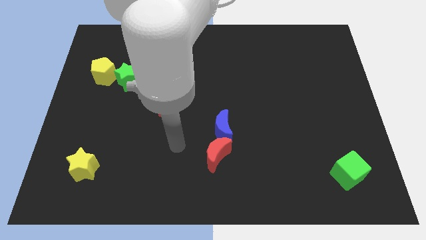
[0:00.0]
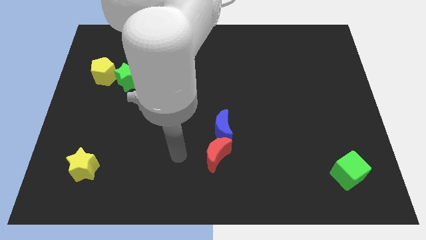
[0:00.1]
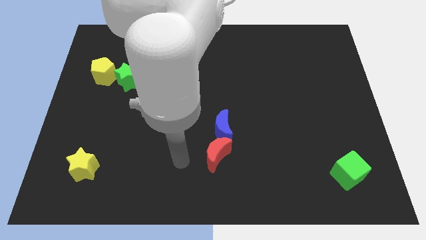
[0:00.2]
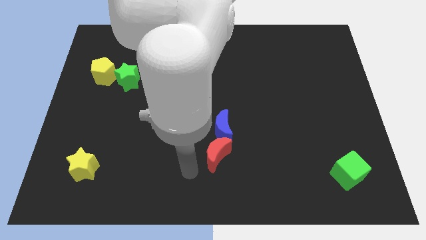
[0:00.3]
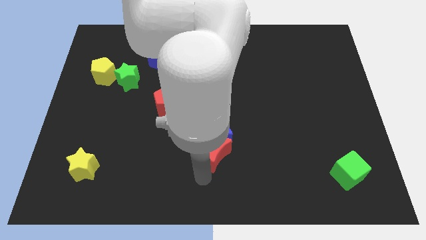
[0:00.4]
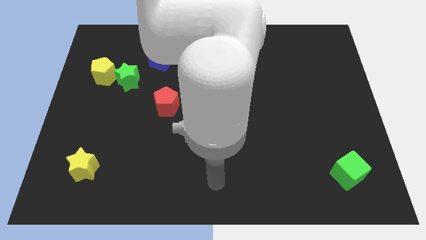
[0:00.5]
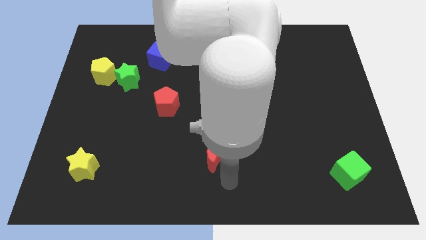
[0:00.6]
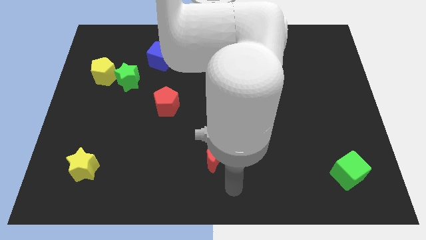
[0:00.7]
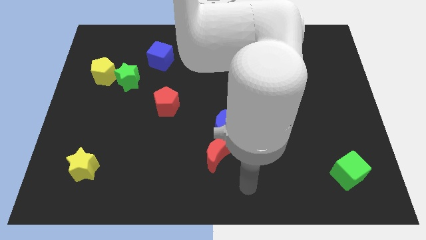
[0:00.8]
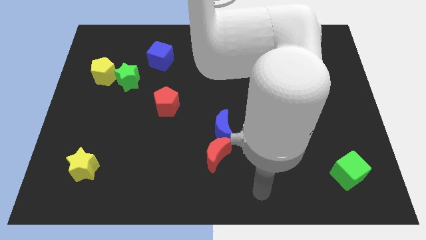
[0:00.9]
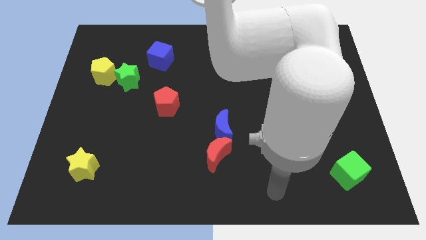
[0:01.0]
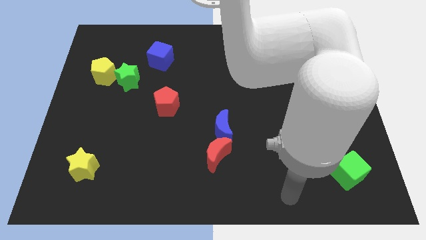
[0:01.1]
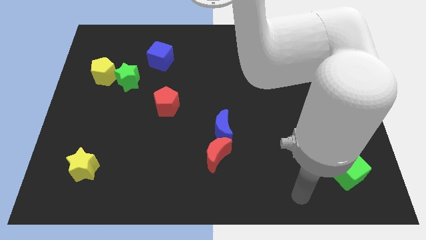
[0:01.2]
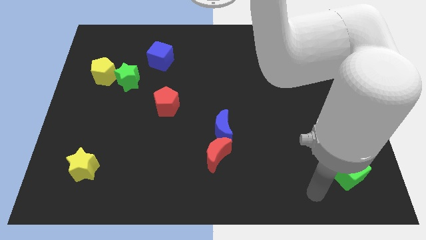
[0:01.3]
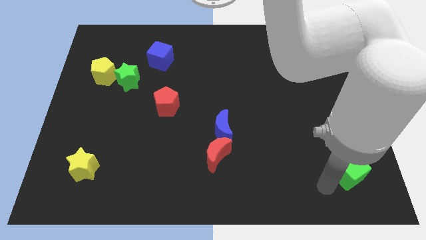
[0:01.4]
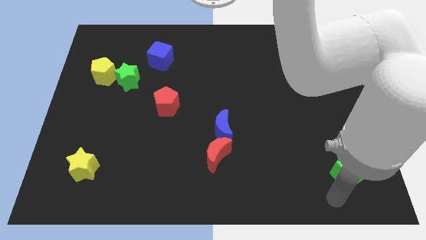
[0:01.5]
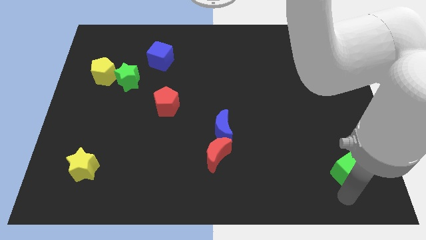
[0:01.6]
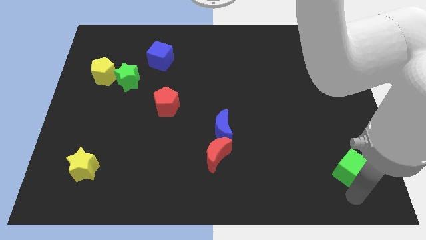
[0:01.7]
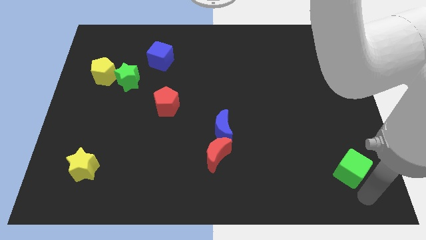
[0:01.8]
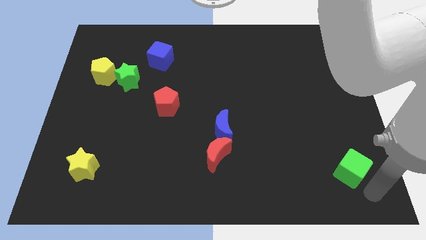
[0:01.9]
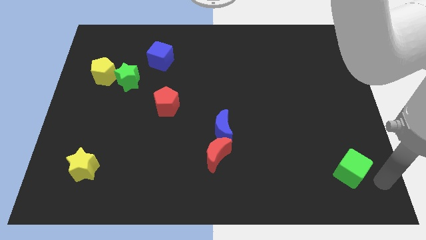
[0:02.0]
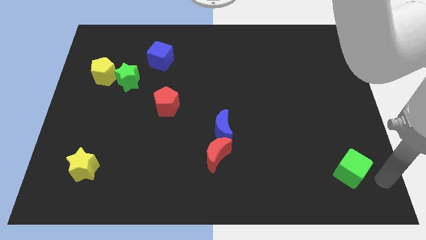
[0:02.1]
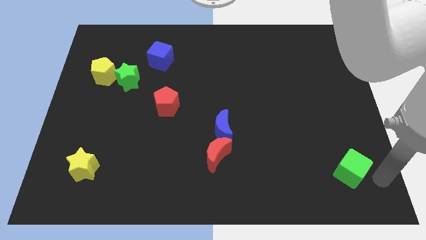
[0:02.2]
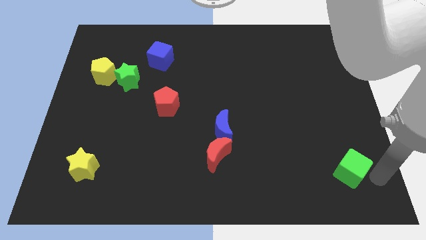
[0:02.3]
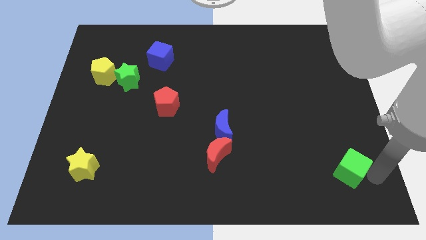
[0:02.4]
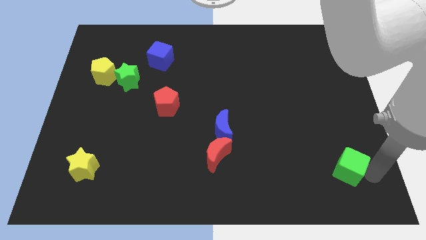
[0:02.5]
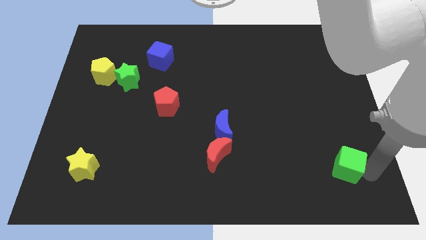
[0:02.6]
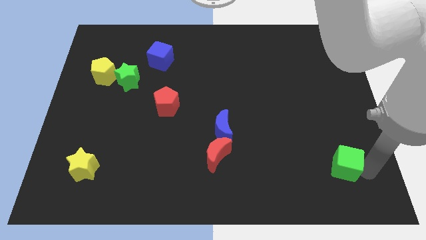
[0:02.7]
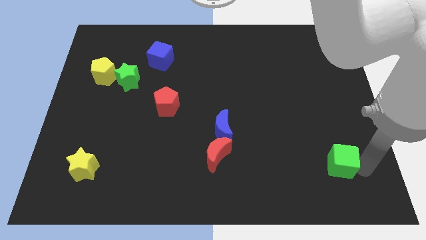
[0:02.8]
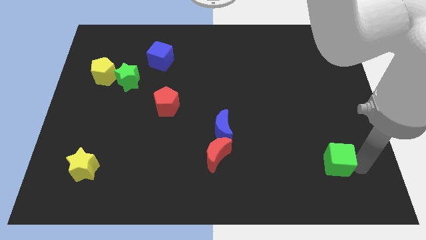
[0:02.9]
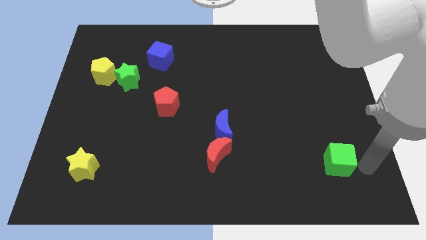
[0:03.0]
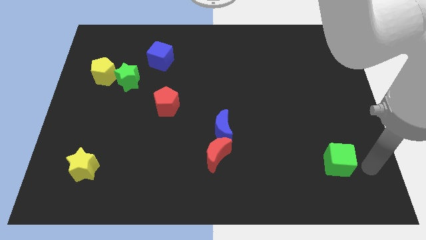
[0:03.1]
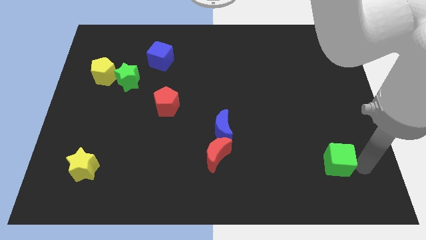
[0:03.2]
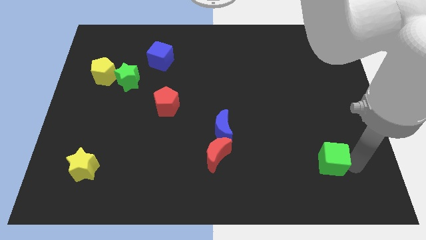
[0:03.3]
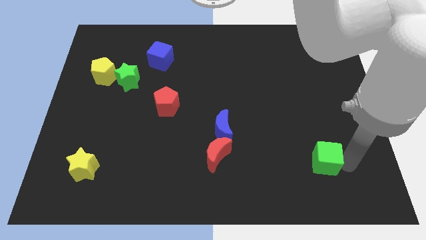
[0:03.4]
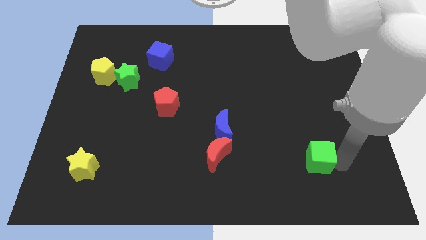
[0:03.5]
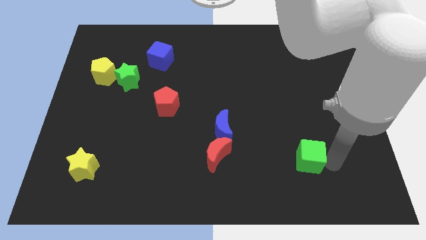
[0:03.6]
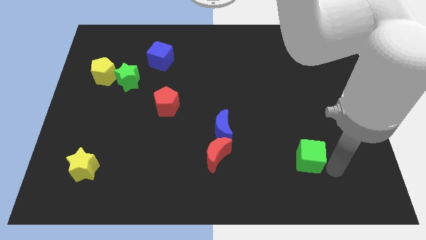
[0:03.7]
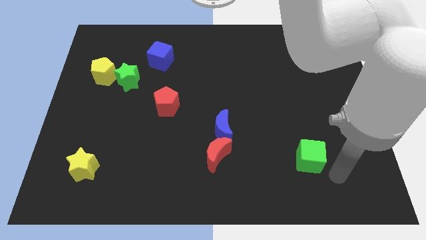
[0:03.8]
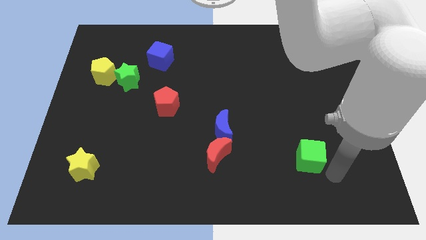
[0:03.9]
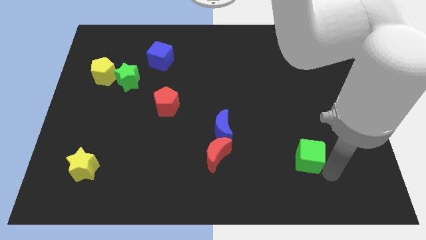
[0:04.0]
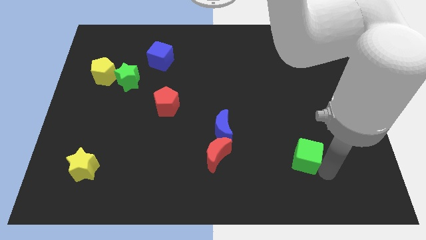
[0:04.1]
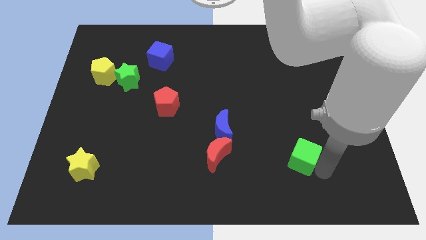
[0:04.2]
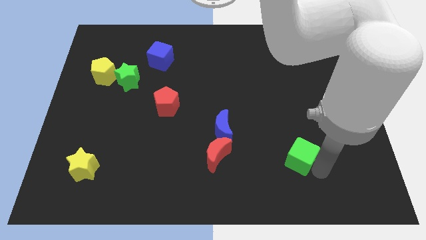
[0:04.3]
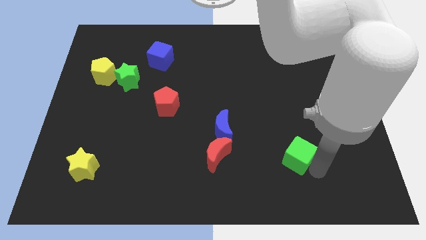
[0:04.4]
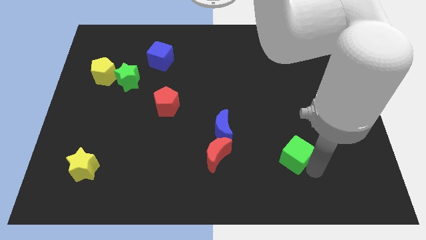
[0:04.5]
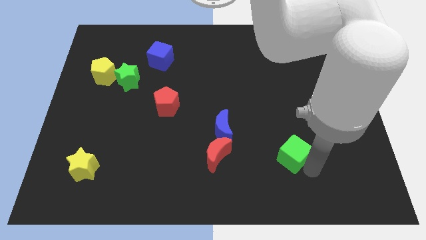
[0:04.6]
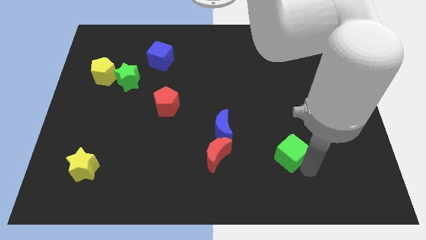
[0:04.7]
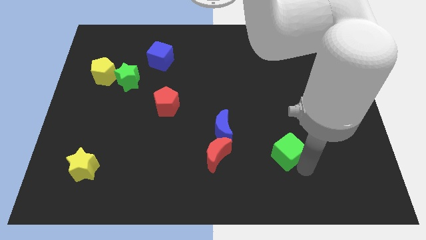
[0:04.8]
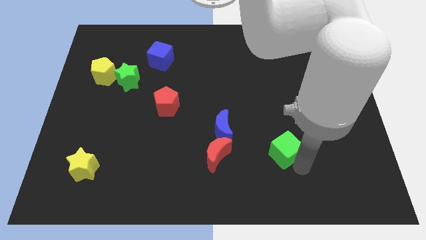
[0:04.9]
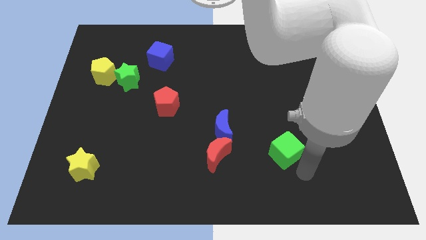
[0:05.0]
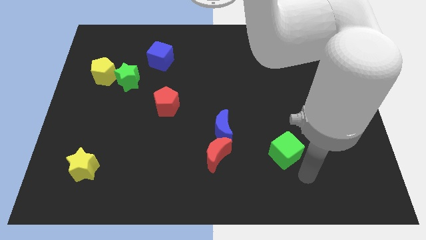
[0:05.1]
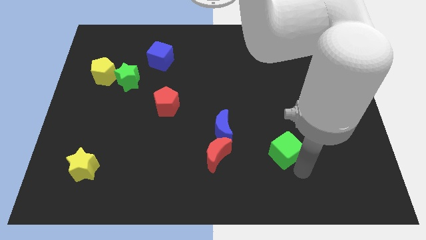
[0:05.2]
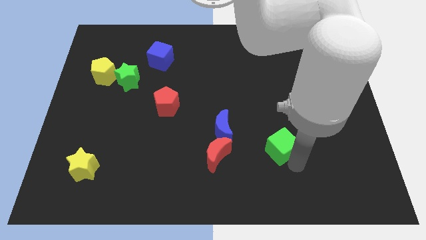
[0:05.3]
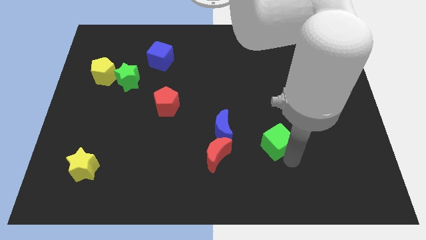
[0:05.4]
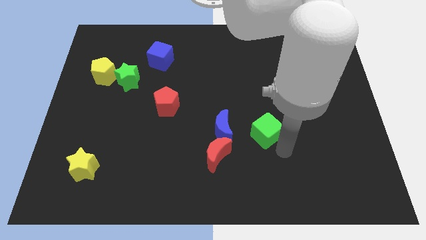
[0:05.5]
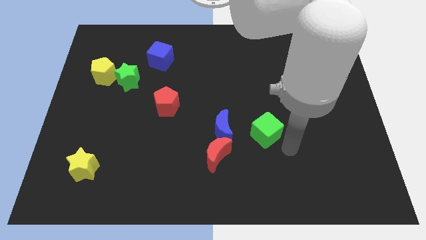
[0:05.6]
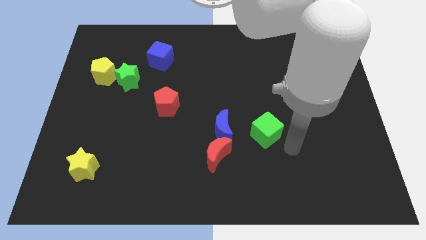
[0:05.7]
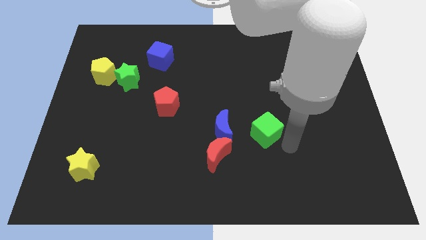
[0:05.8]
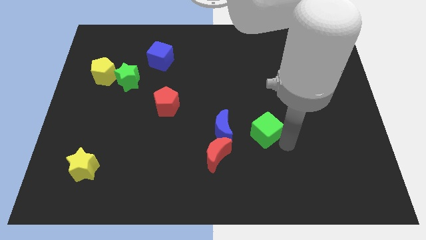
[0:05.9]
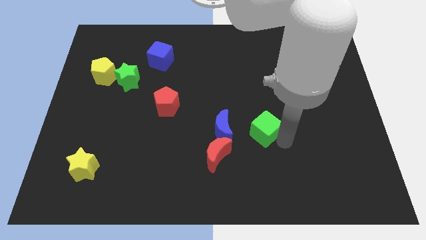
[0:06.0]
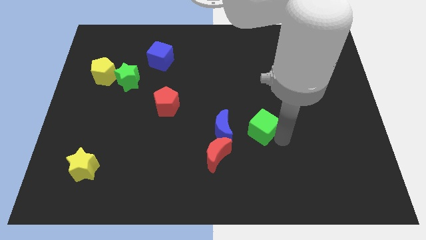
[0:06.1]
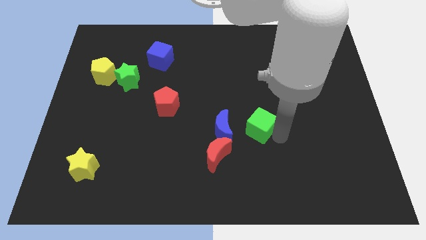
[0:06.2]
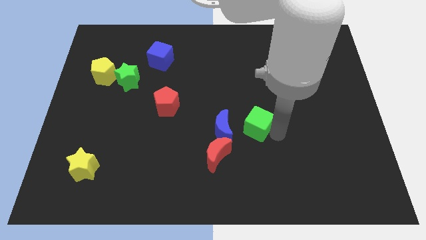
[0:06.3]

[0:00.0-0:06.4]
push the green cube to the center
